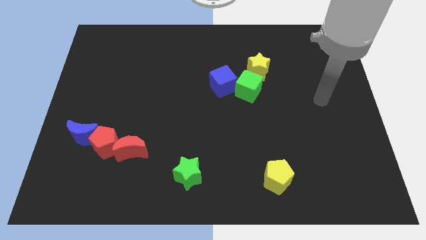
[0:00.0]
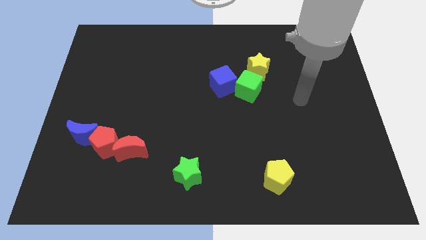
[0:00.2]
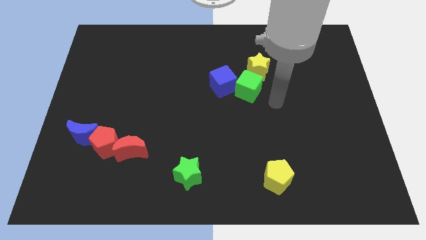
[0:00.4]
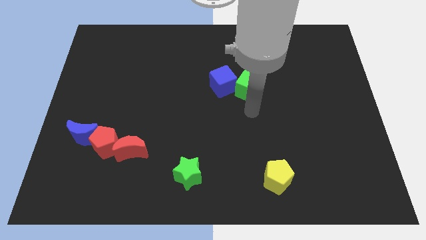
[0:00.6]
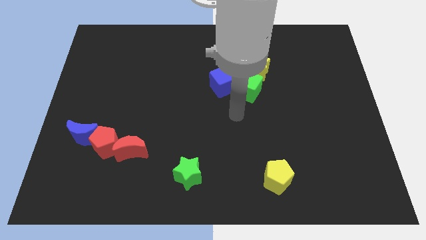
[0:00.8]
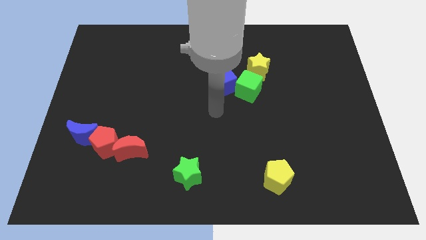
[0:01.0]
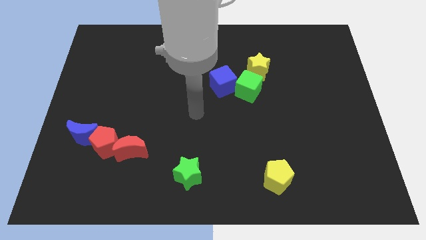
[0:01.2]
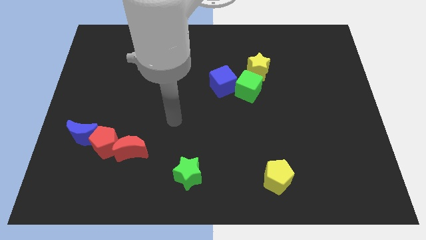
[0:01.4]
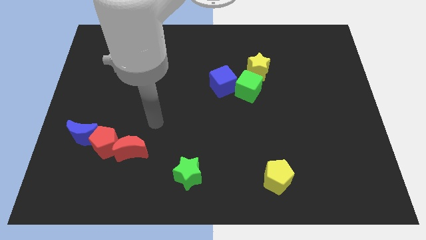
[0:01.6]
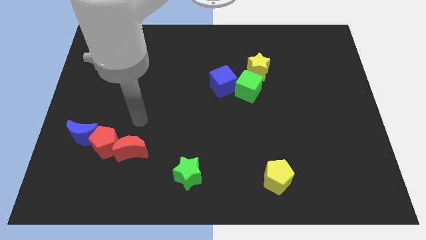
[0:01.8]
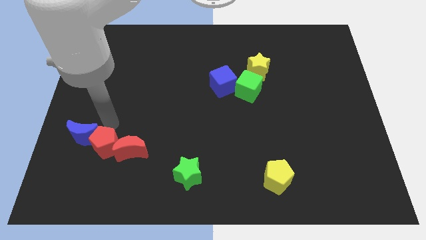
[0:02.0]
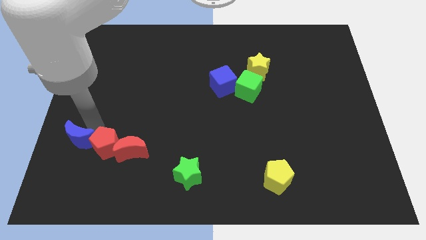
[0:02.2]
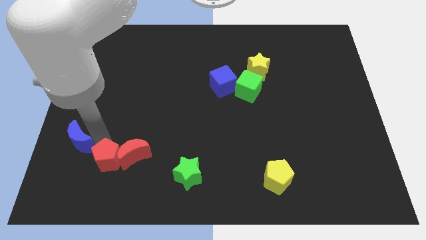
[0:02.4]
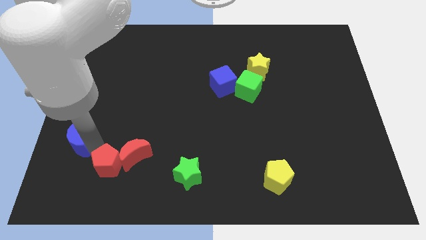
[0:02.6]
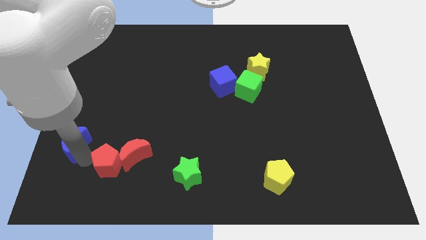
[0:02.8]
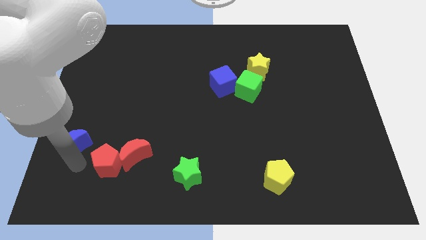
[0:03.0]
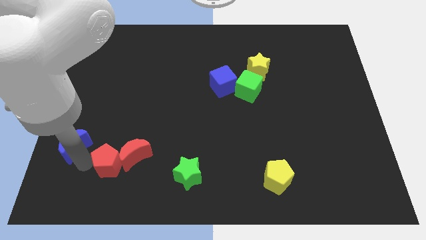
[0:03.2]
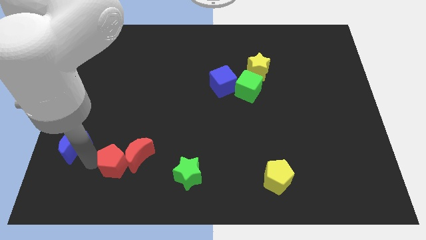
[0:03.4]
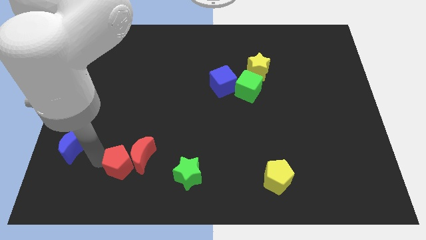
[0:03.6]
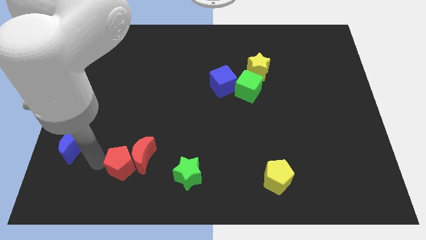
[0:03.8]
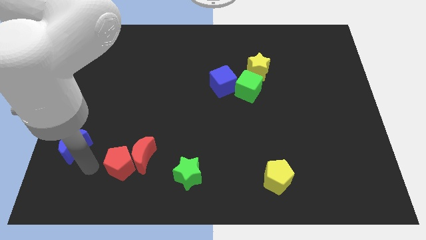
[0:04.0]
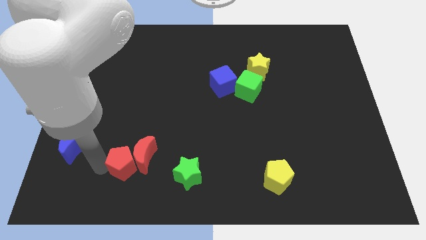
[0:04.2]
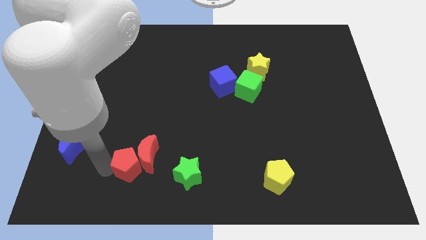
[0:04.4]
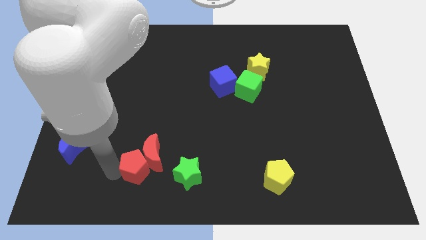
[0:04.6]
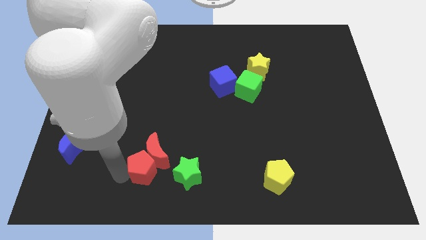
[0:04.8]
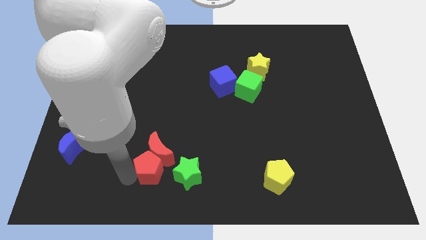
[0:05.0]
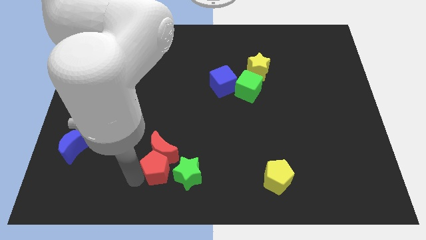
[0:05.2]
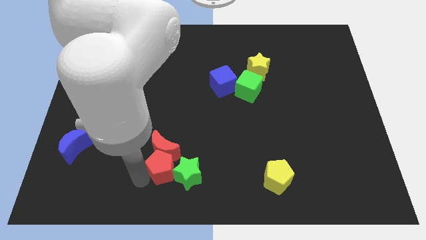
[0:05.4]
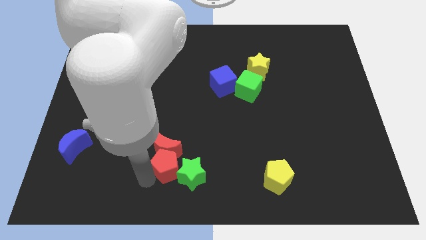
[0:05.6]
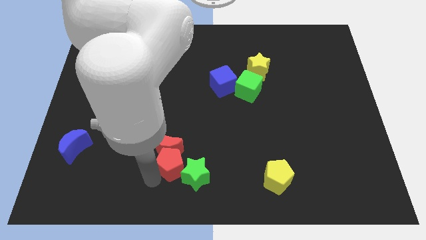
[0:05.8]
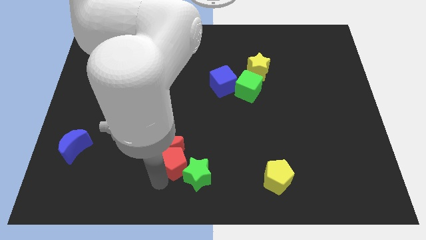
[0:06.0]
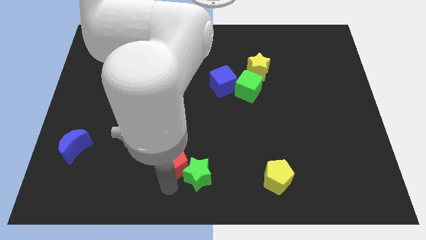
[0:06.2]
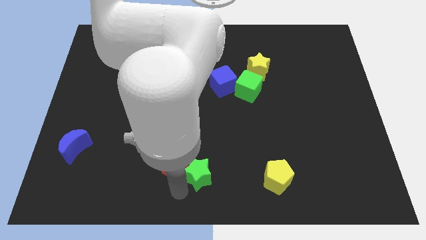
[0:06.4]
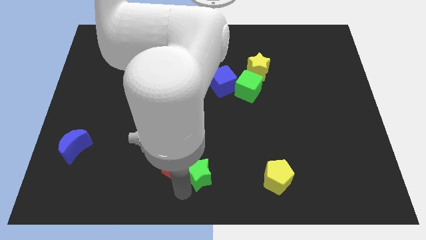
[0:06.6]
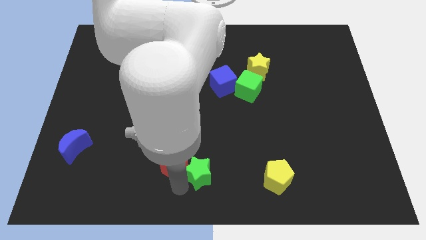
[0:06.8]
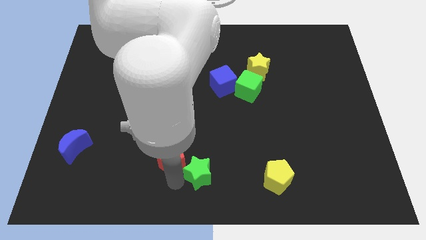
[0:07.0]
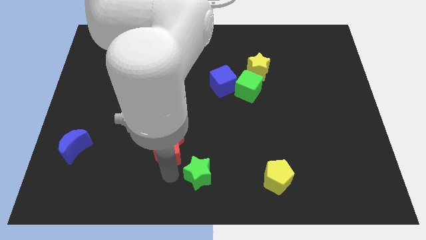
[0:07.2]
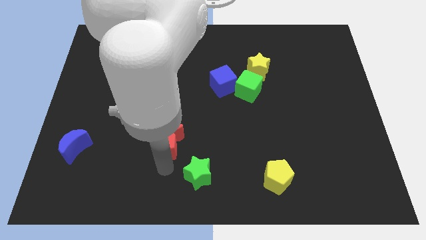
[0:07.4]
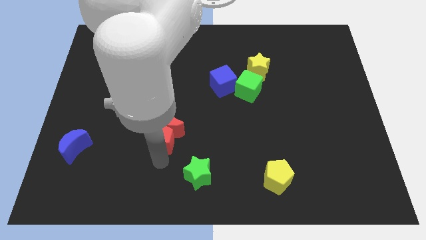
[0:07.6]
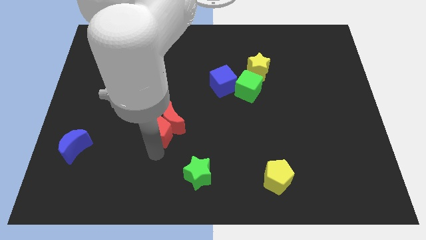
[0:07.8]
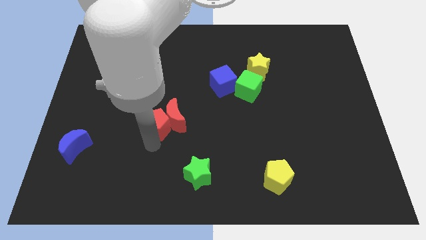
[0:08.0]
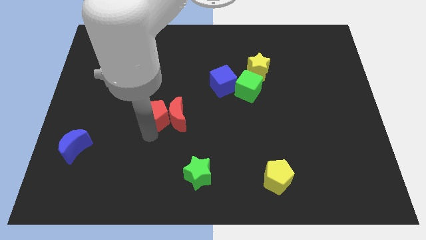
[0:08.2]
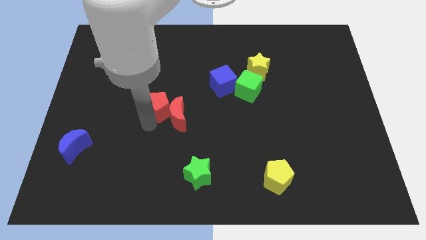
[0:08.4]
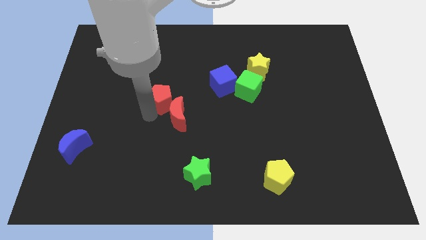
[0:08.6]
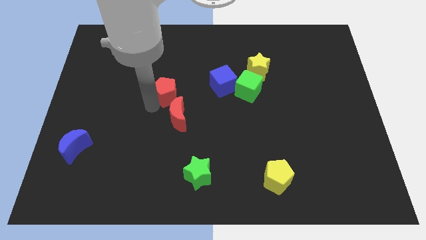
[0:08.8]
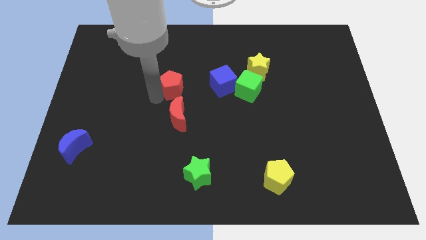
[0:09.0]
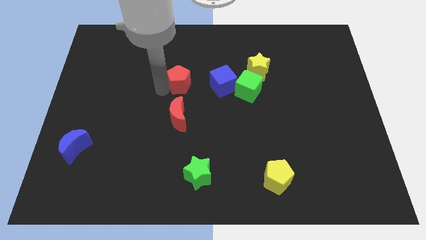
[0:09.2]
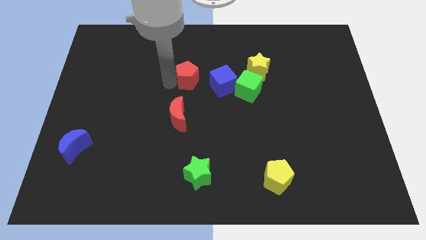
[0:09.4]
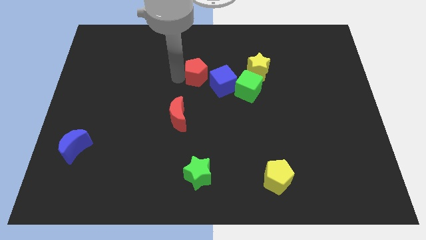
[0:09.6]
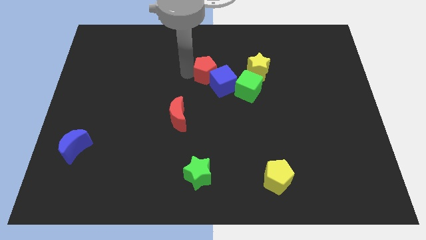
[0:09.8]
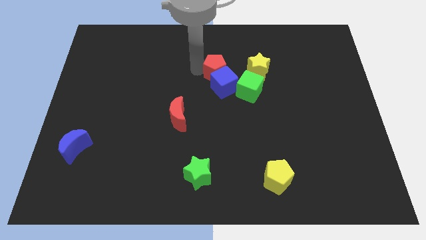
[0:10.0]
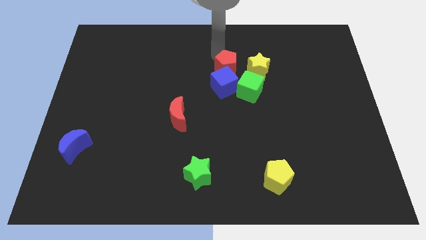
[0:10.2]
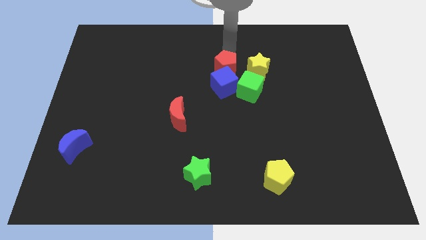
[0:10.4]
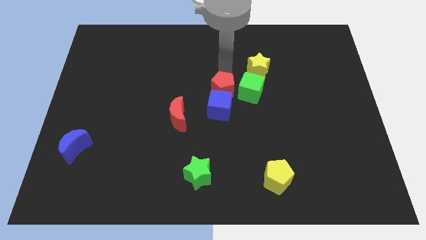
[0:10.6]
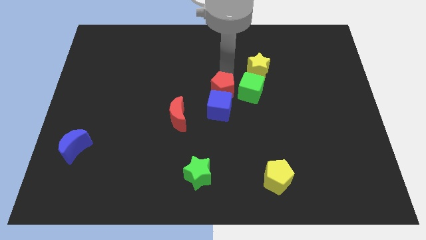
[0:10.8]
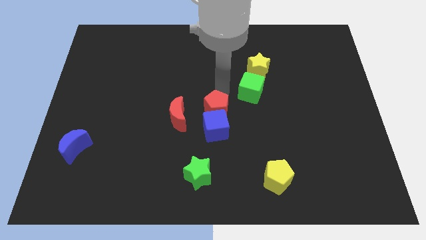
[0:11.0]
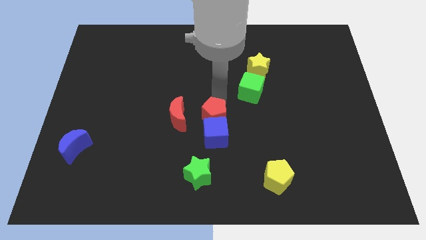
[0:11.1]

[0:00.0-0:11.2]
slide the red pentagon to the right

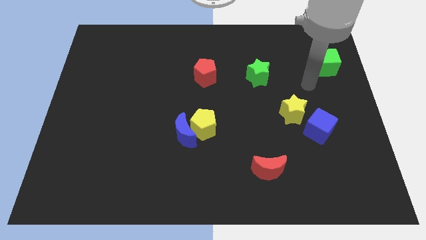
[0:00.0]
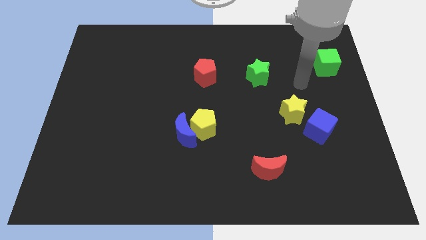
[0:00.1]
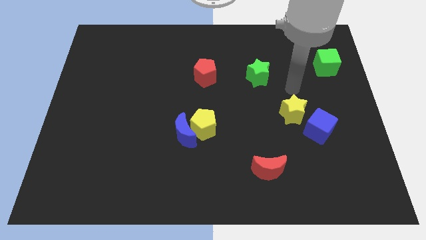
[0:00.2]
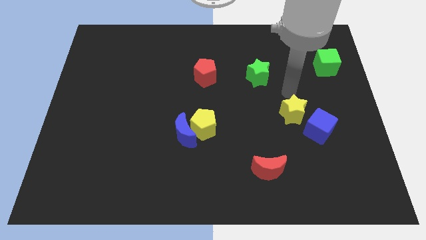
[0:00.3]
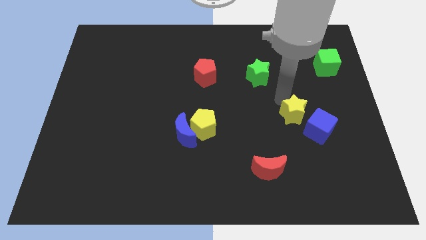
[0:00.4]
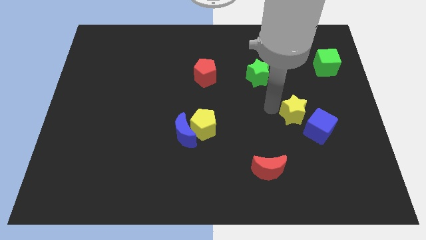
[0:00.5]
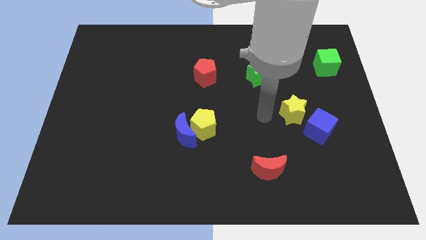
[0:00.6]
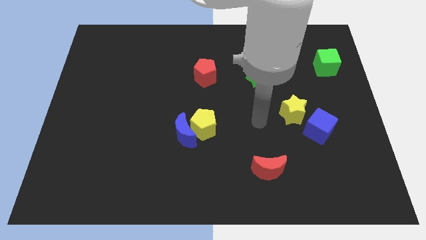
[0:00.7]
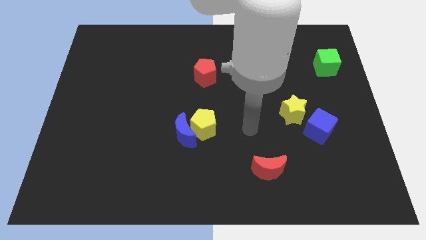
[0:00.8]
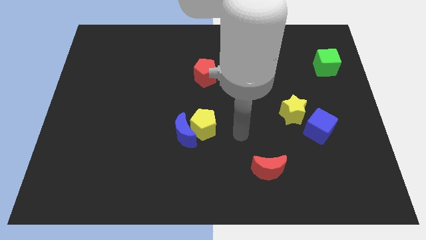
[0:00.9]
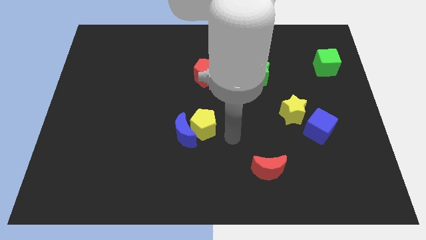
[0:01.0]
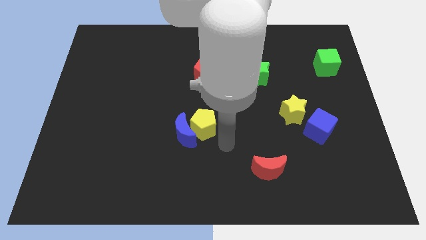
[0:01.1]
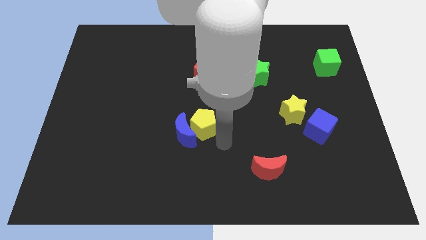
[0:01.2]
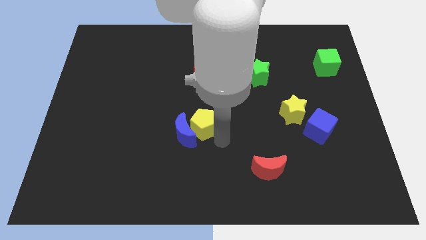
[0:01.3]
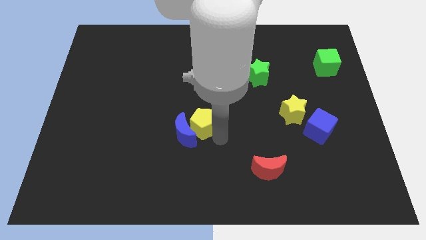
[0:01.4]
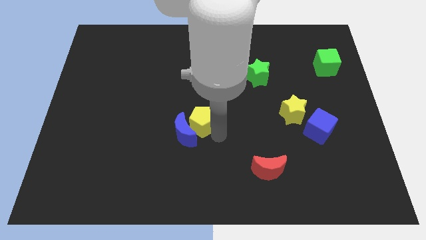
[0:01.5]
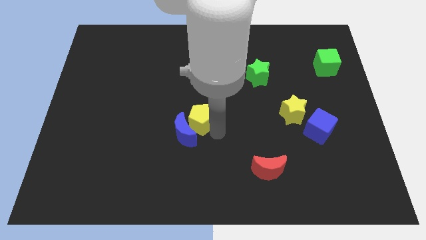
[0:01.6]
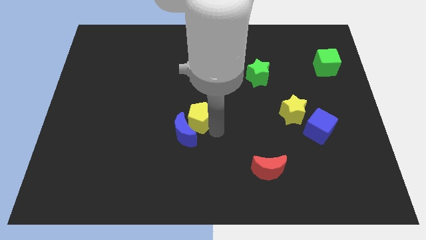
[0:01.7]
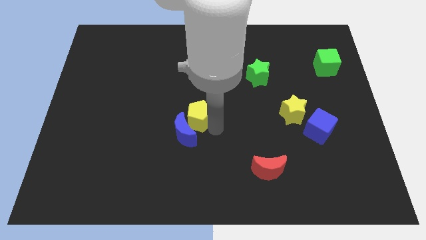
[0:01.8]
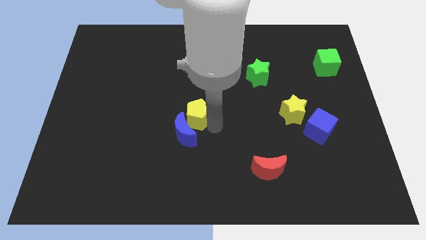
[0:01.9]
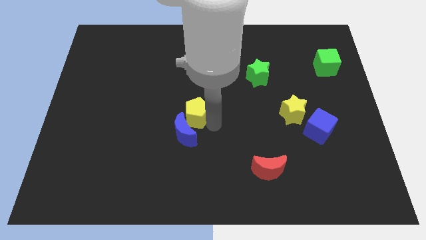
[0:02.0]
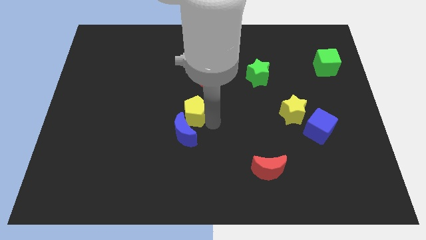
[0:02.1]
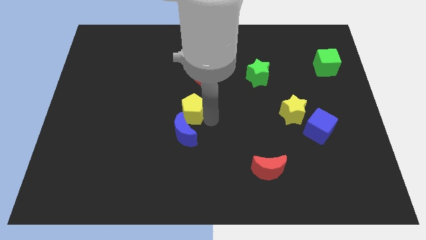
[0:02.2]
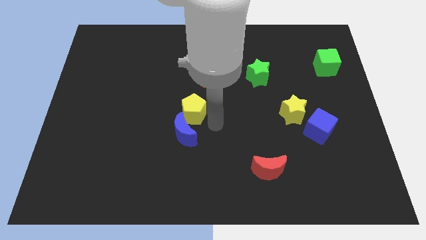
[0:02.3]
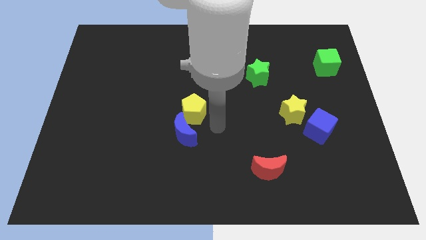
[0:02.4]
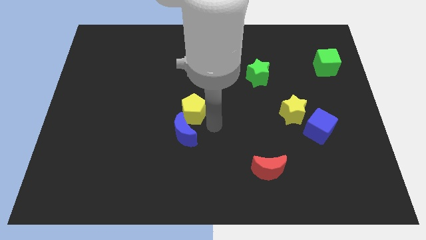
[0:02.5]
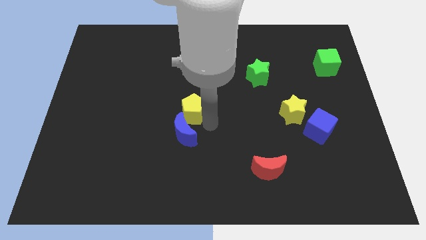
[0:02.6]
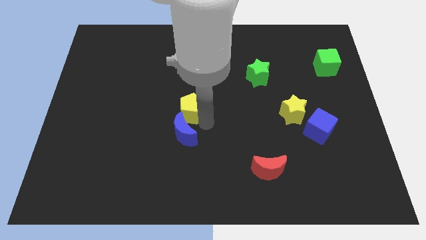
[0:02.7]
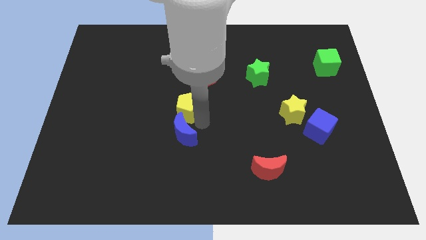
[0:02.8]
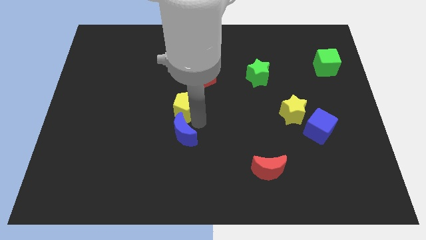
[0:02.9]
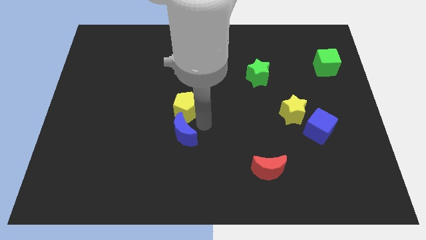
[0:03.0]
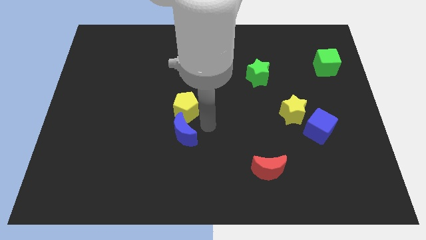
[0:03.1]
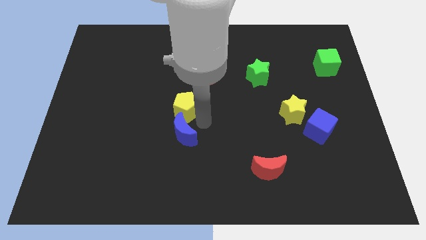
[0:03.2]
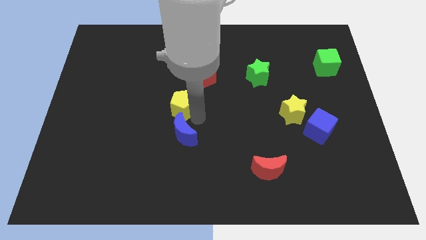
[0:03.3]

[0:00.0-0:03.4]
slide the yellow pentagon a little upwards and to the left diagonally
